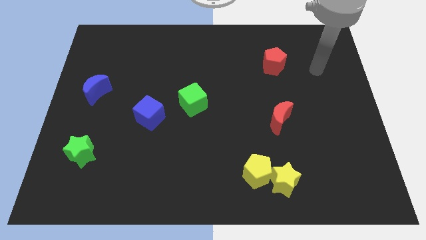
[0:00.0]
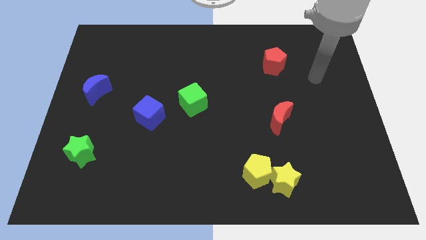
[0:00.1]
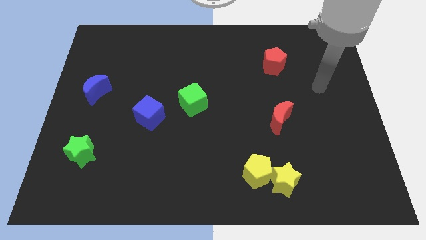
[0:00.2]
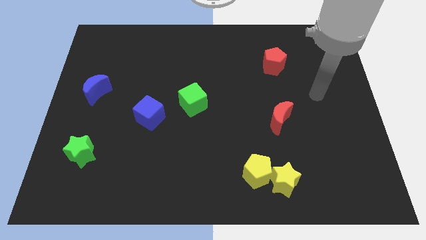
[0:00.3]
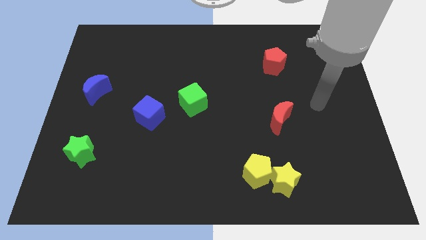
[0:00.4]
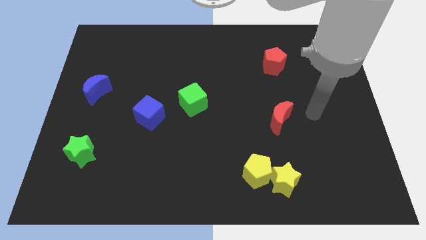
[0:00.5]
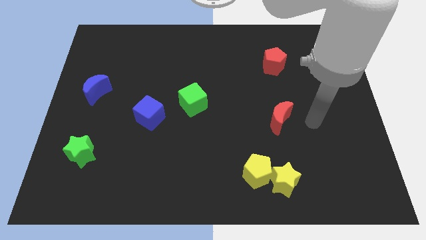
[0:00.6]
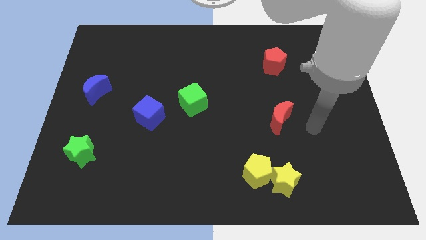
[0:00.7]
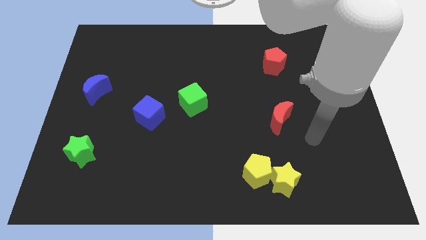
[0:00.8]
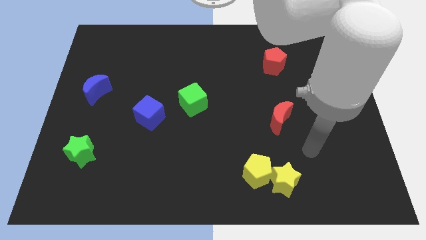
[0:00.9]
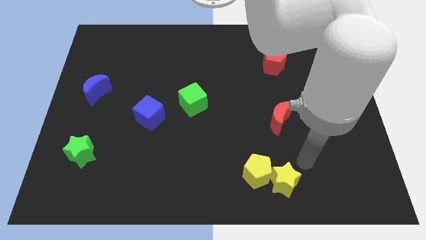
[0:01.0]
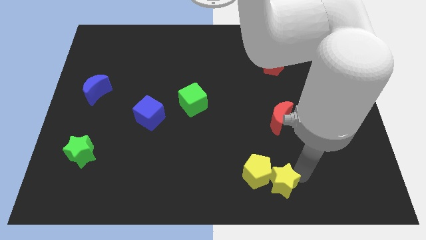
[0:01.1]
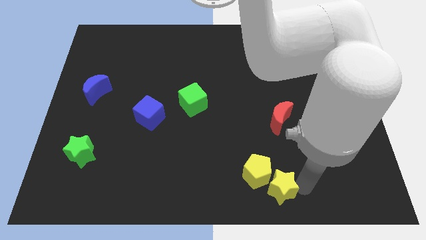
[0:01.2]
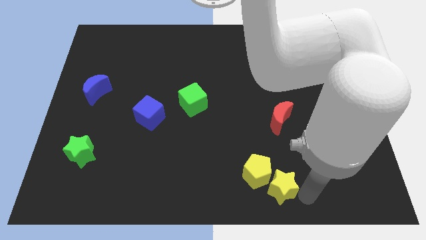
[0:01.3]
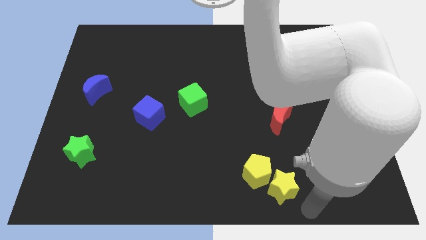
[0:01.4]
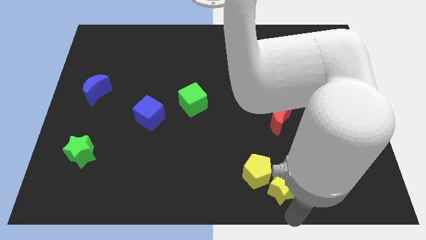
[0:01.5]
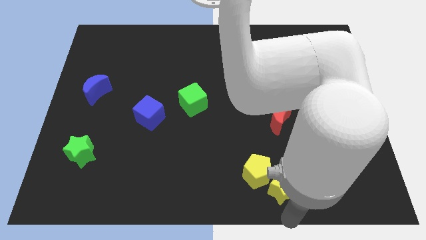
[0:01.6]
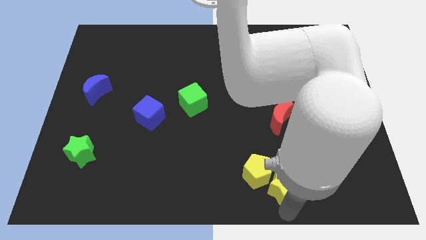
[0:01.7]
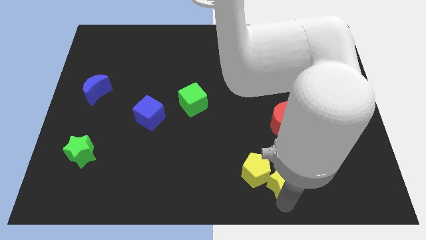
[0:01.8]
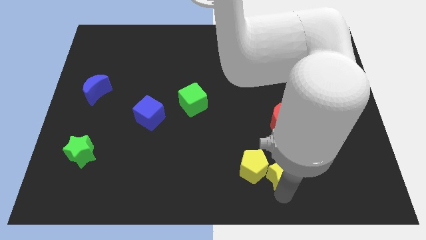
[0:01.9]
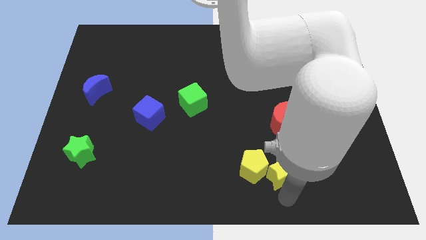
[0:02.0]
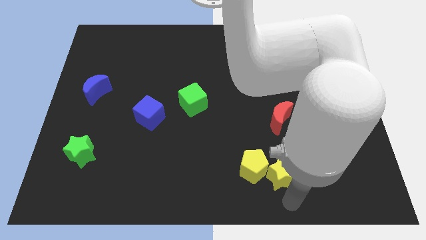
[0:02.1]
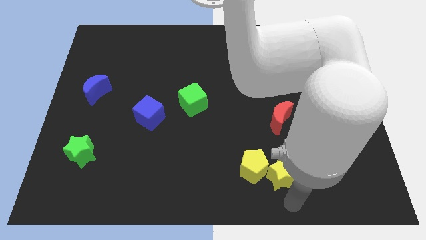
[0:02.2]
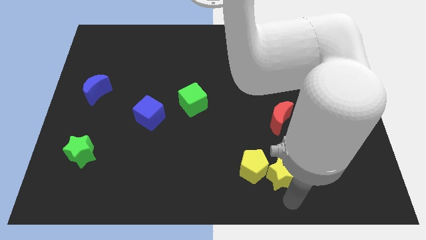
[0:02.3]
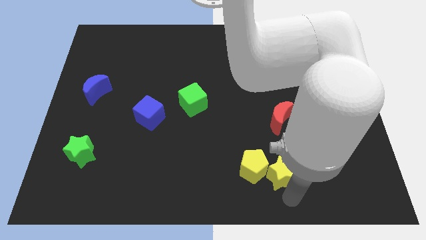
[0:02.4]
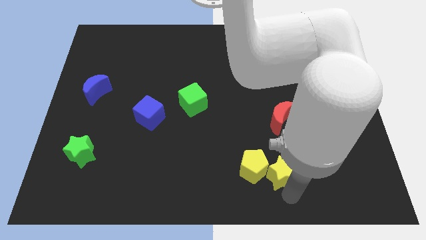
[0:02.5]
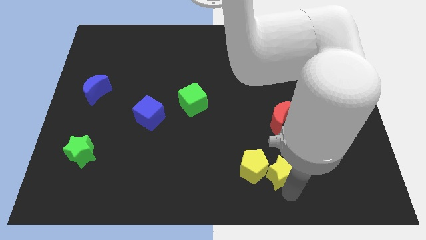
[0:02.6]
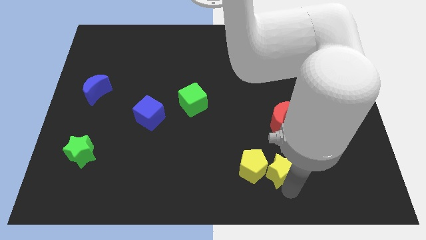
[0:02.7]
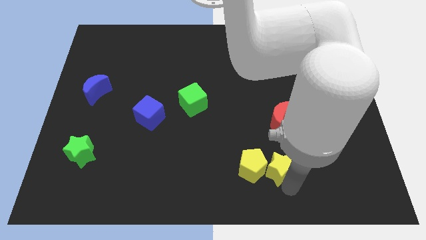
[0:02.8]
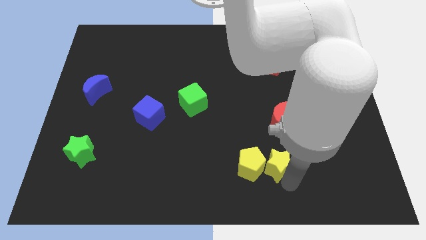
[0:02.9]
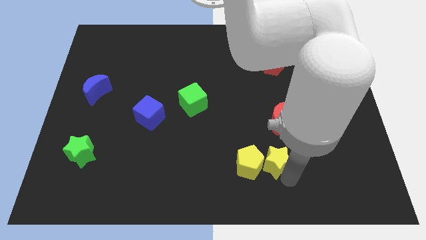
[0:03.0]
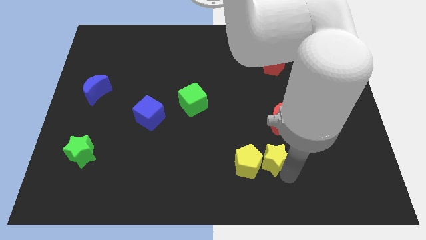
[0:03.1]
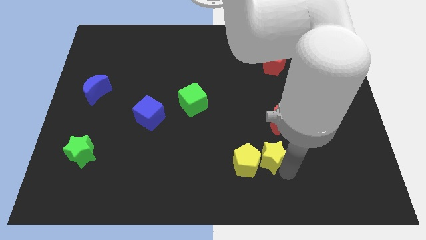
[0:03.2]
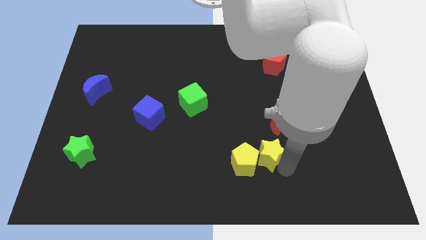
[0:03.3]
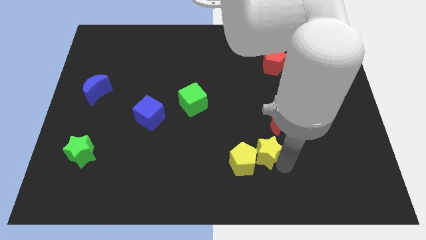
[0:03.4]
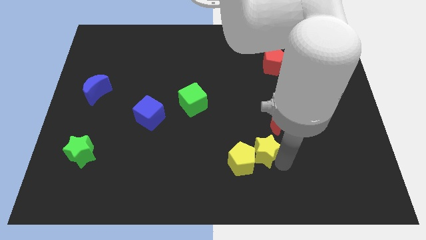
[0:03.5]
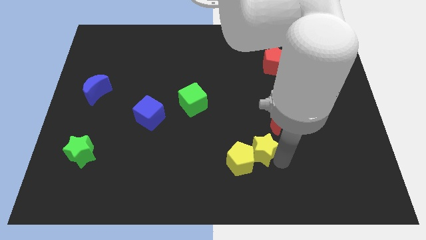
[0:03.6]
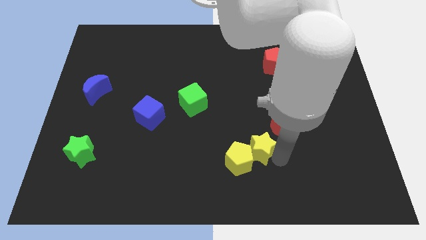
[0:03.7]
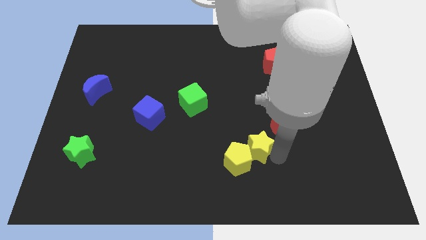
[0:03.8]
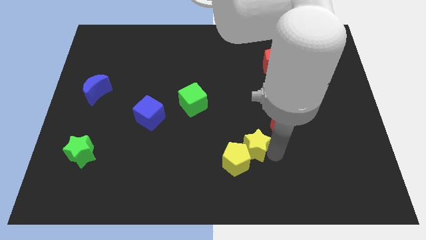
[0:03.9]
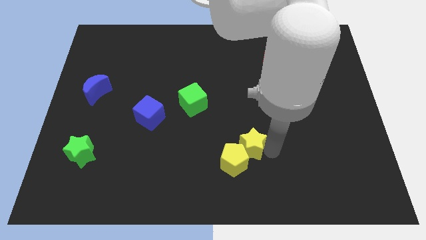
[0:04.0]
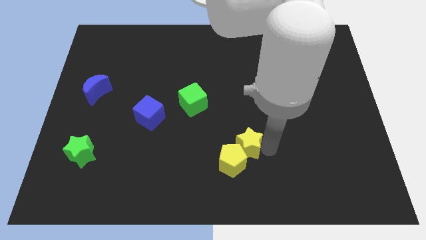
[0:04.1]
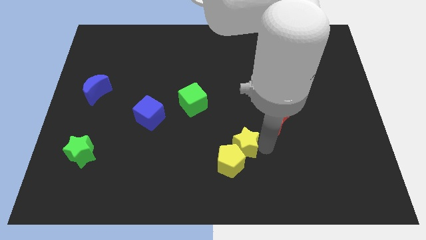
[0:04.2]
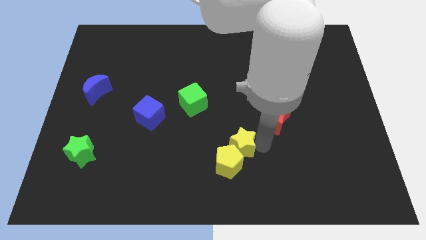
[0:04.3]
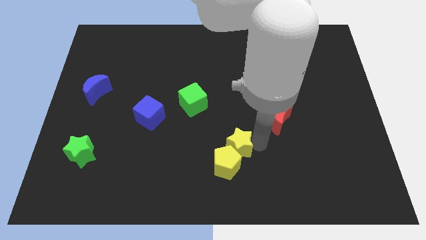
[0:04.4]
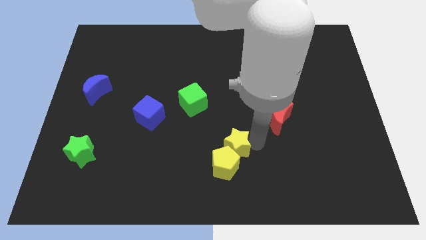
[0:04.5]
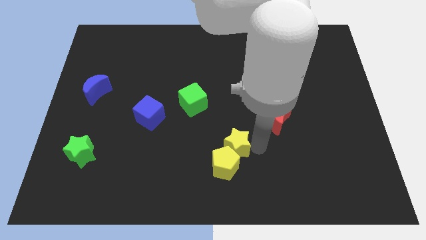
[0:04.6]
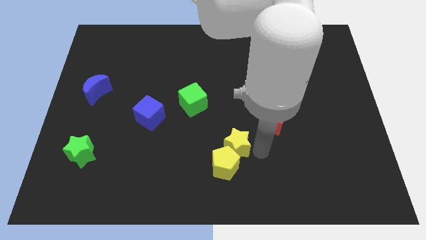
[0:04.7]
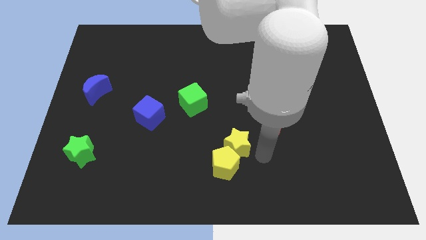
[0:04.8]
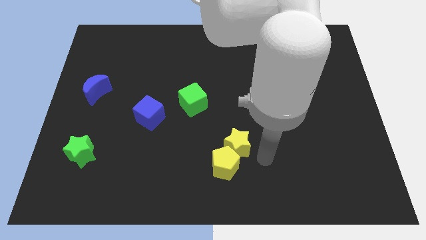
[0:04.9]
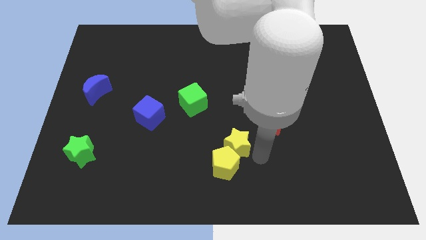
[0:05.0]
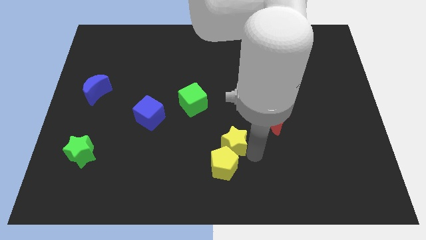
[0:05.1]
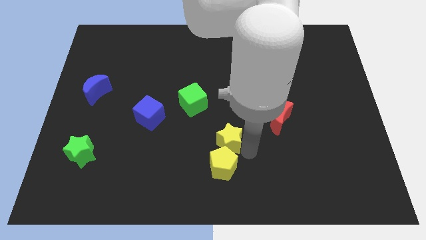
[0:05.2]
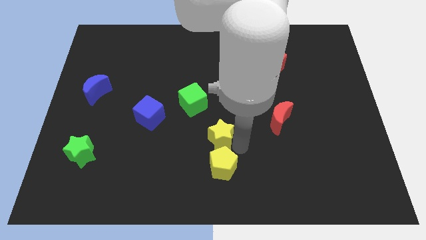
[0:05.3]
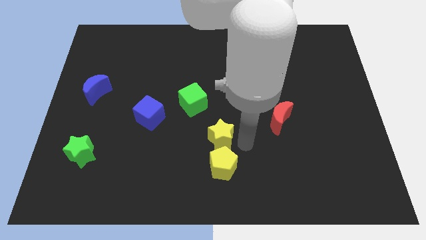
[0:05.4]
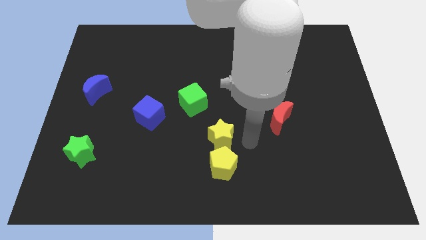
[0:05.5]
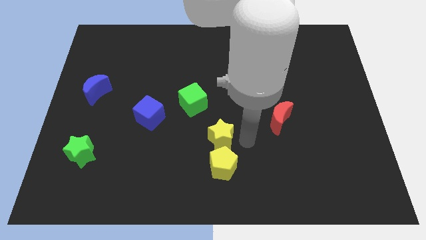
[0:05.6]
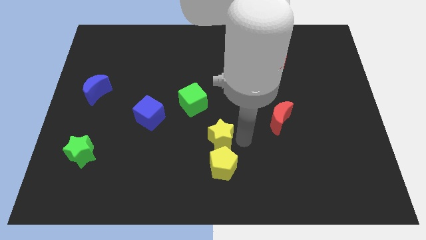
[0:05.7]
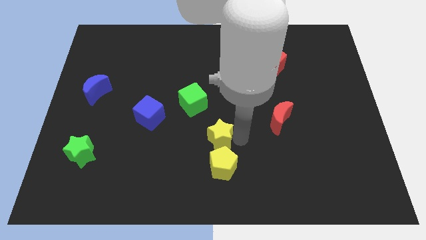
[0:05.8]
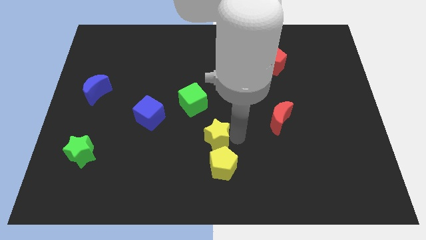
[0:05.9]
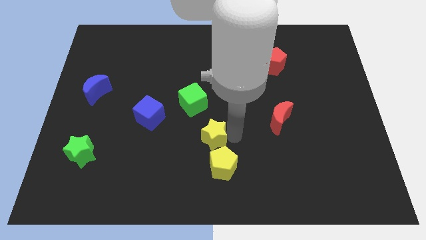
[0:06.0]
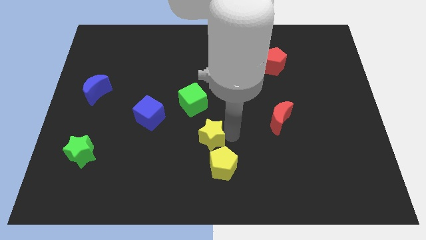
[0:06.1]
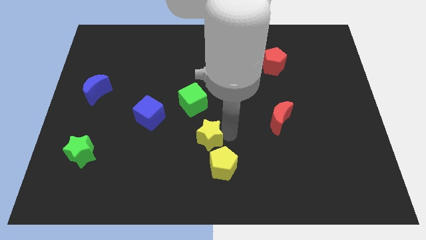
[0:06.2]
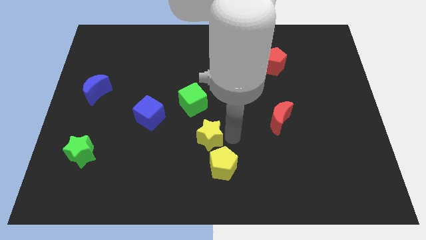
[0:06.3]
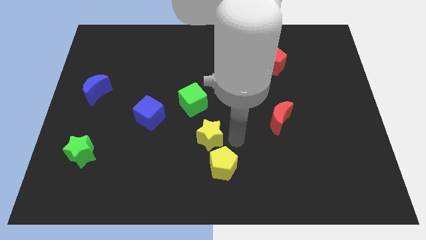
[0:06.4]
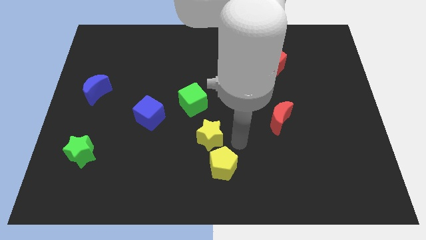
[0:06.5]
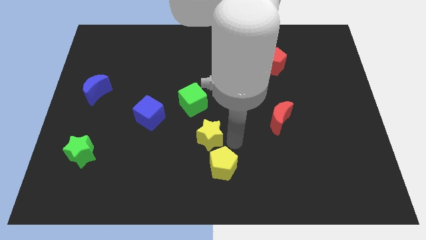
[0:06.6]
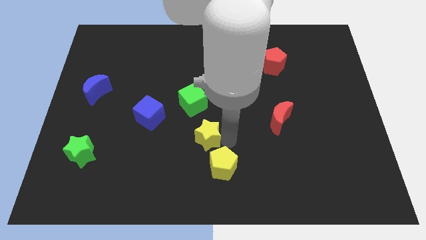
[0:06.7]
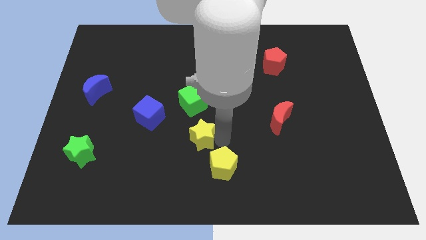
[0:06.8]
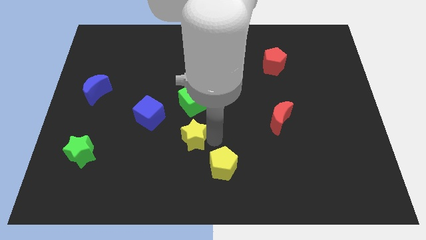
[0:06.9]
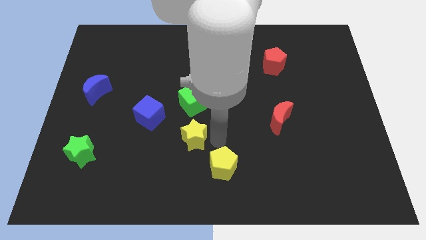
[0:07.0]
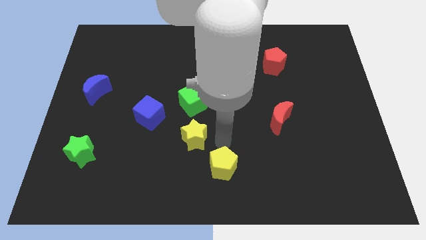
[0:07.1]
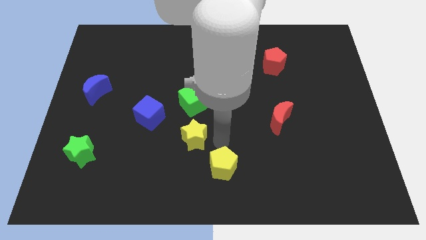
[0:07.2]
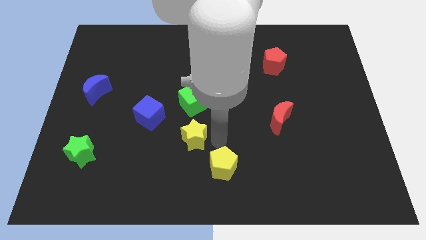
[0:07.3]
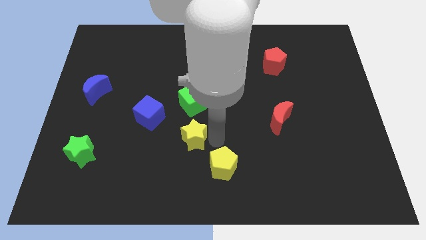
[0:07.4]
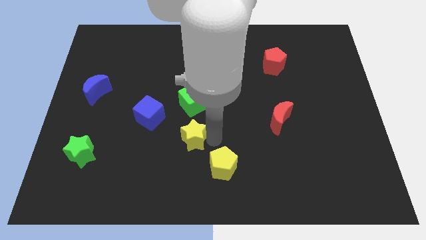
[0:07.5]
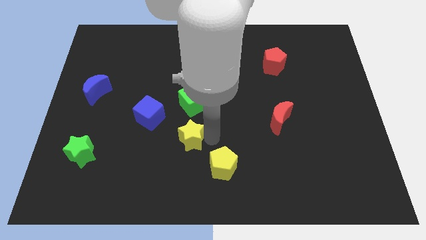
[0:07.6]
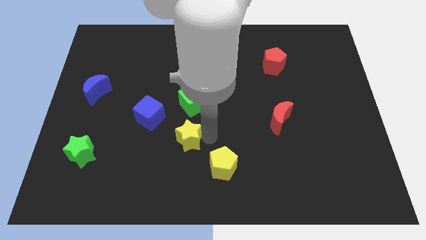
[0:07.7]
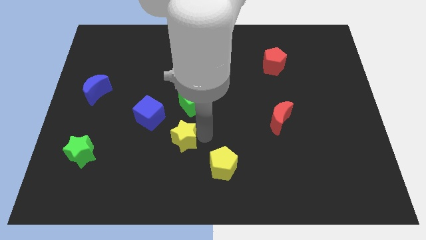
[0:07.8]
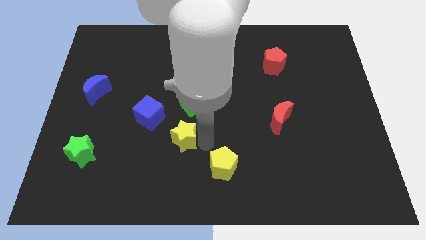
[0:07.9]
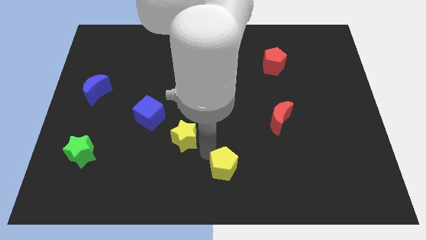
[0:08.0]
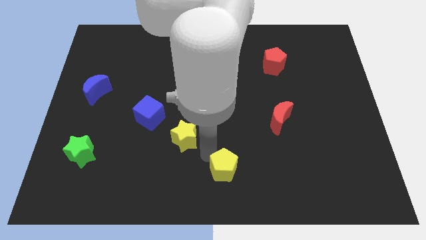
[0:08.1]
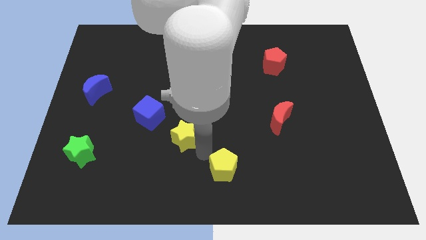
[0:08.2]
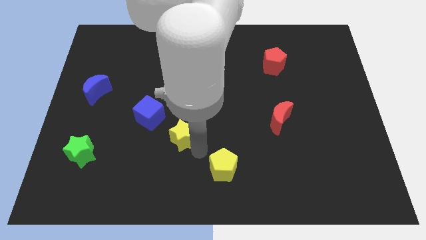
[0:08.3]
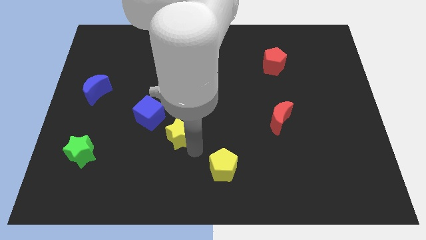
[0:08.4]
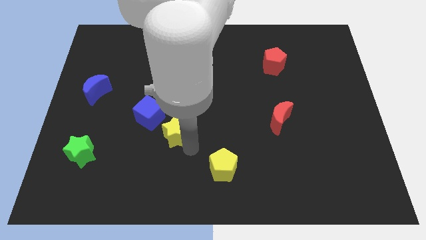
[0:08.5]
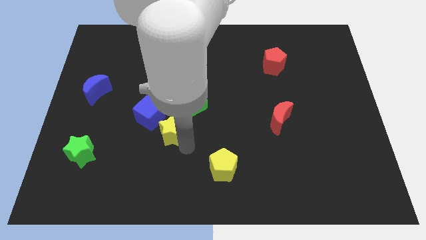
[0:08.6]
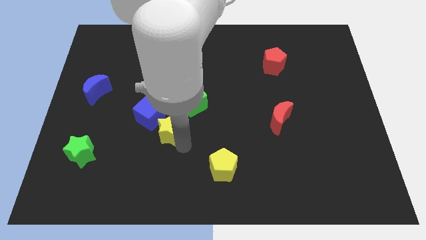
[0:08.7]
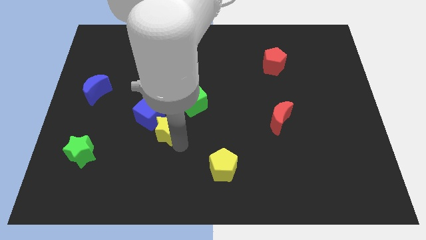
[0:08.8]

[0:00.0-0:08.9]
move the yellow star to the blue cube
